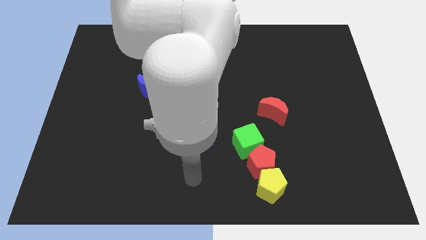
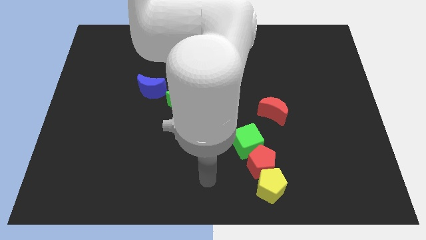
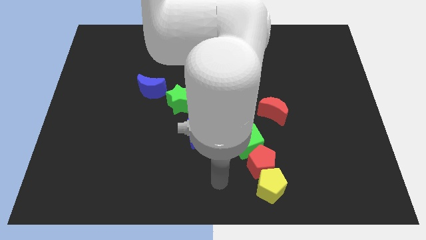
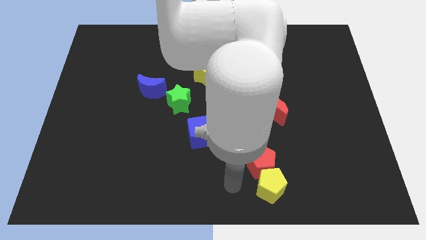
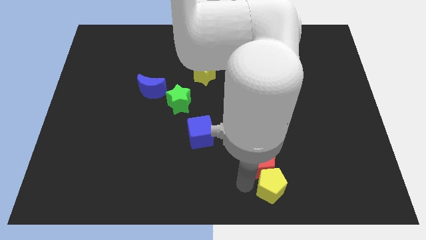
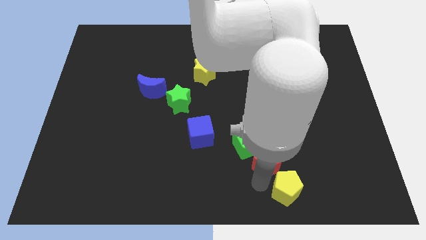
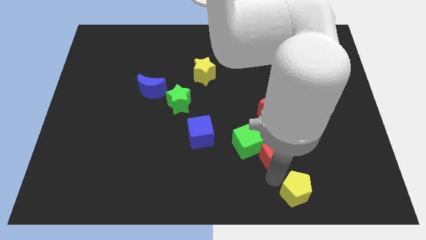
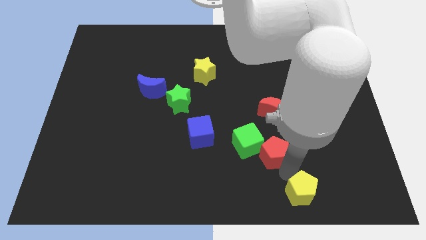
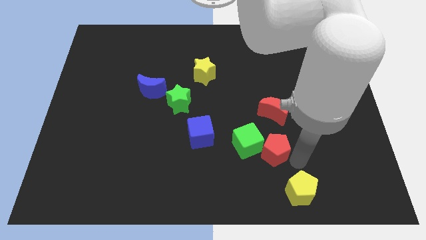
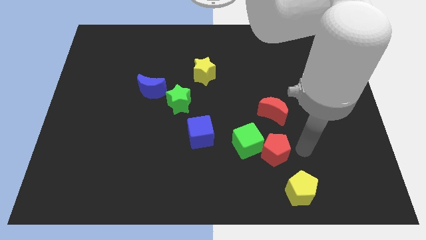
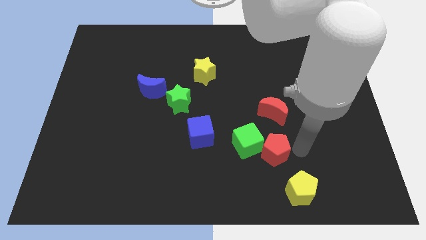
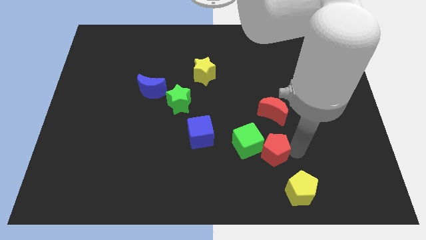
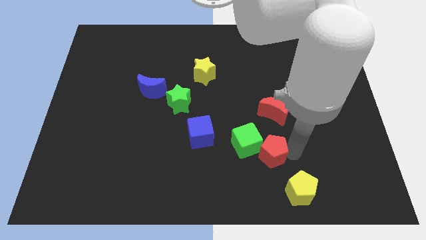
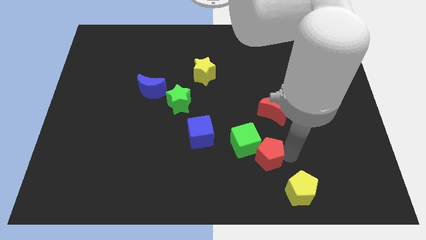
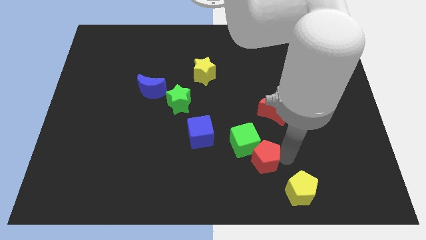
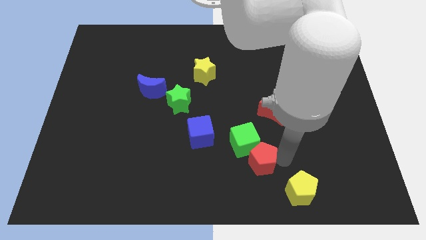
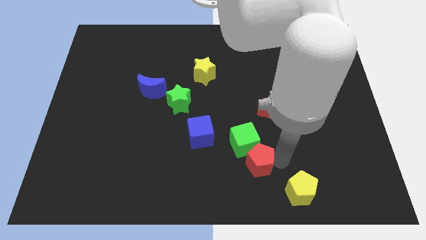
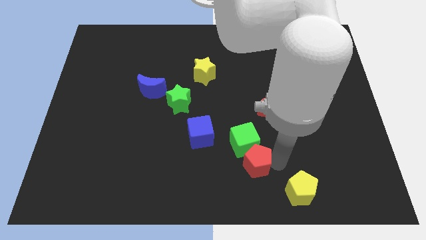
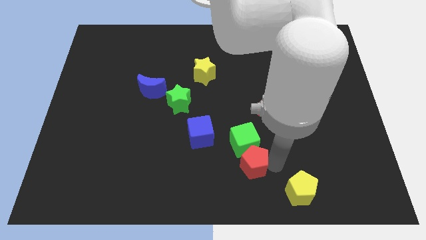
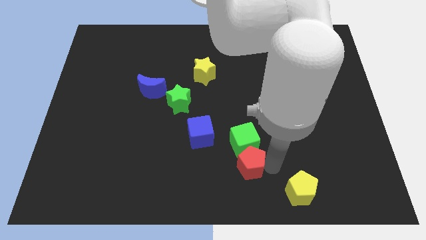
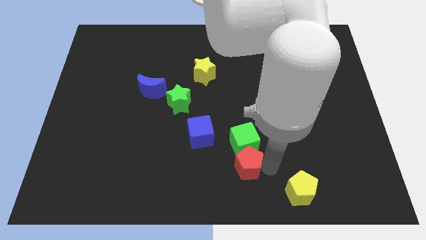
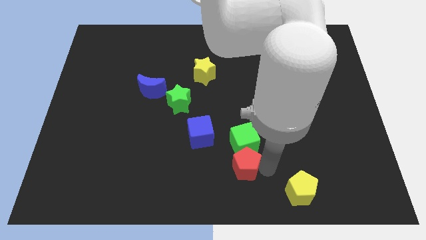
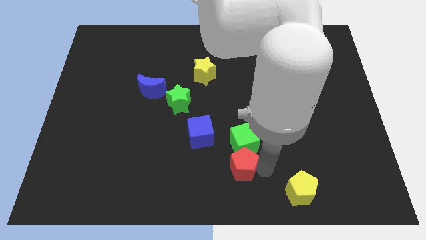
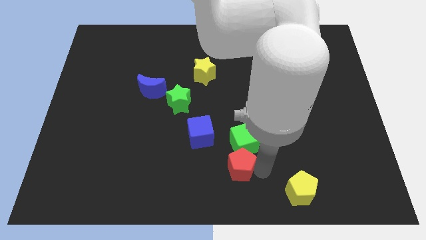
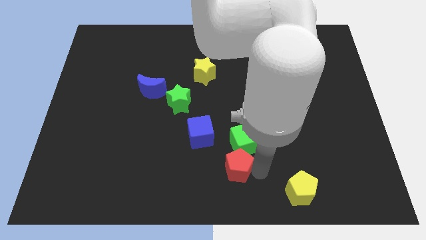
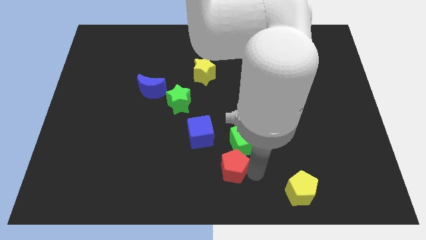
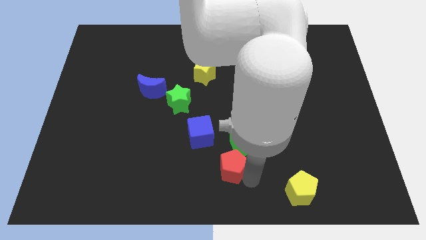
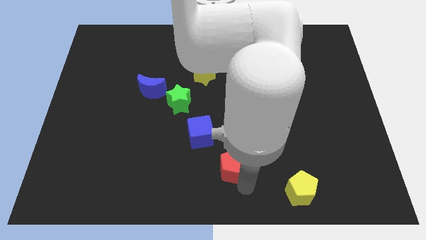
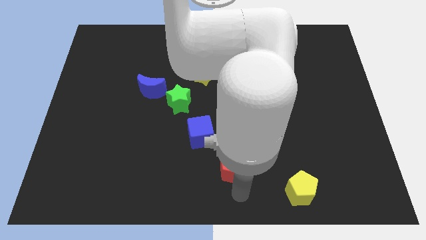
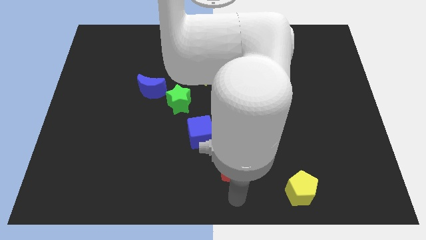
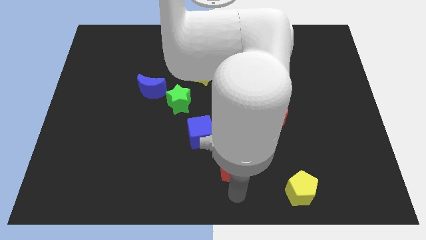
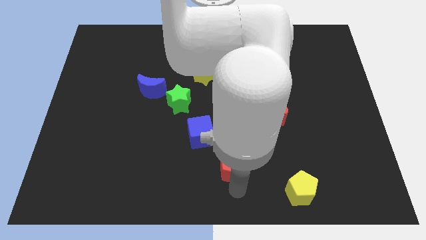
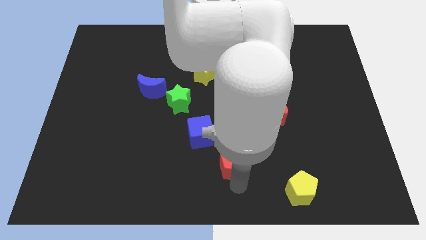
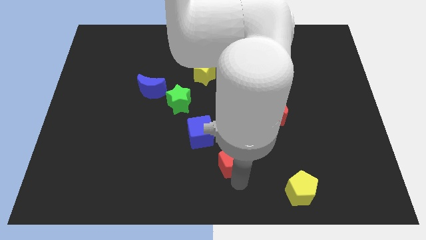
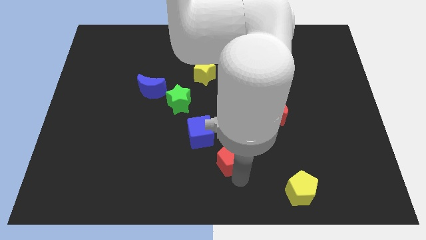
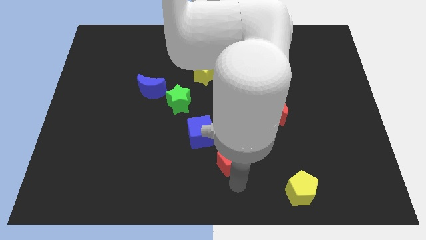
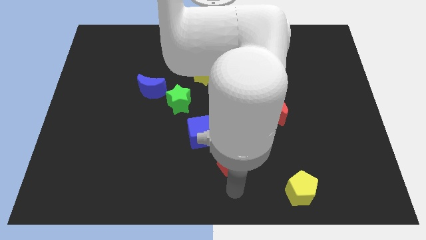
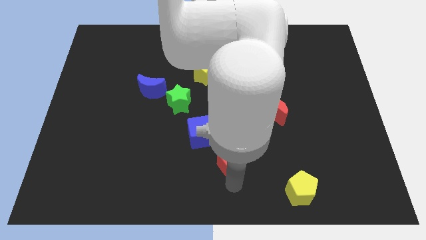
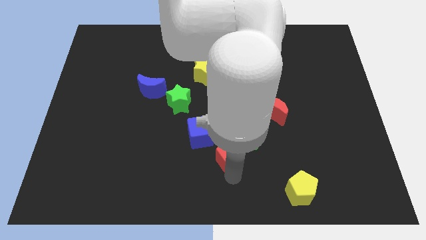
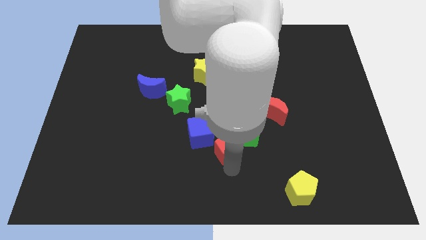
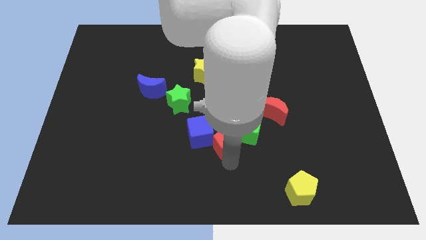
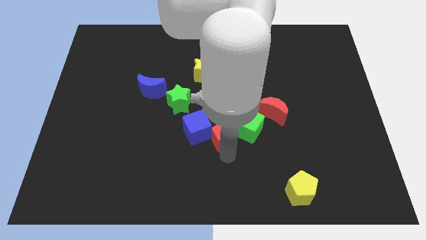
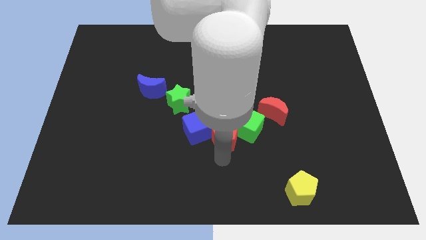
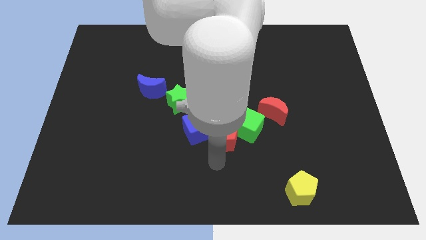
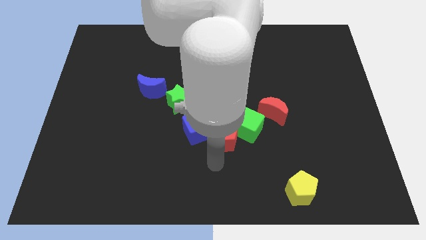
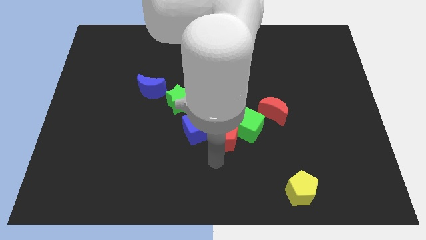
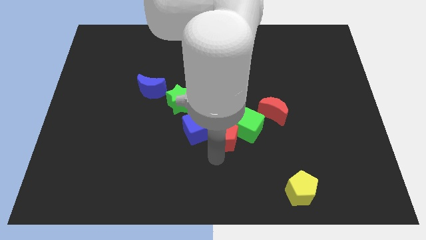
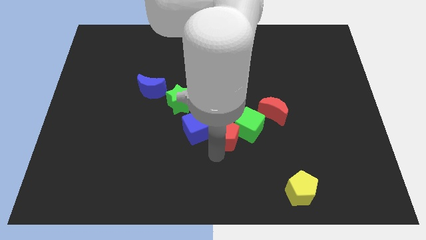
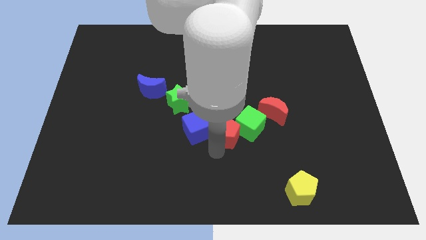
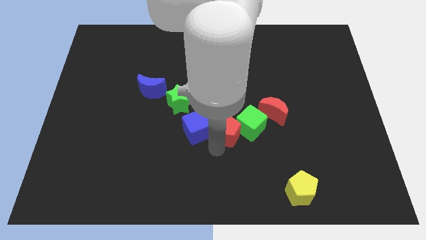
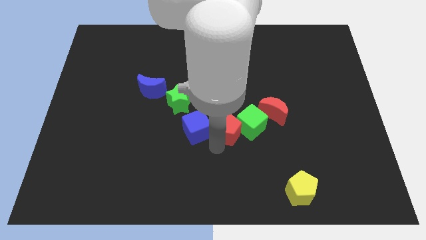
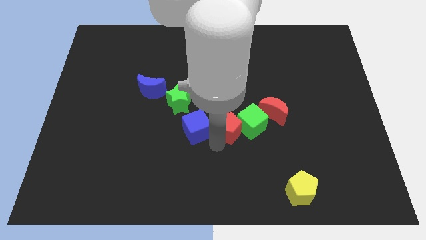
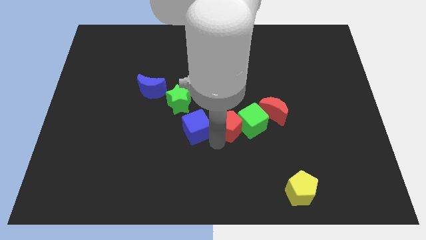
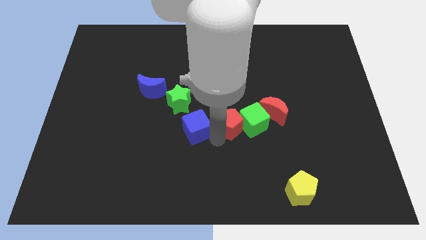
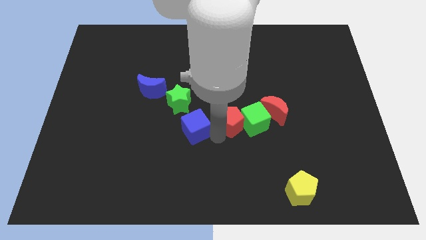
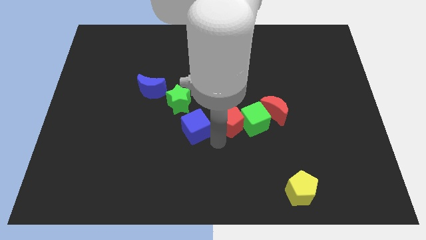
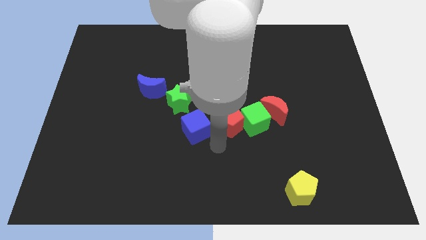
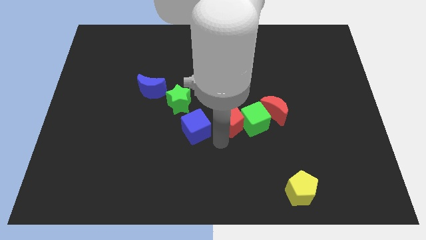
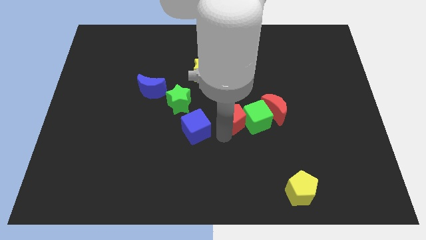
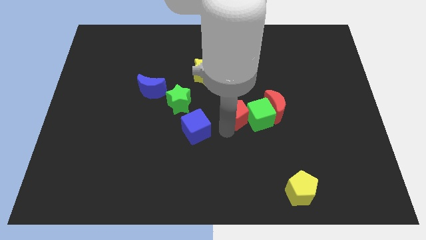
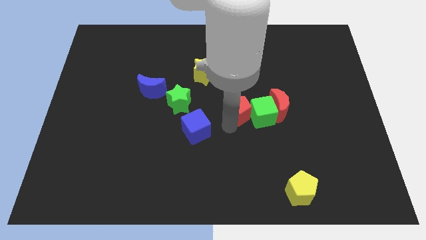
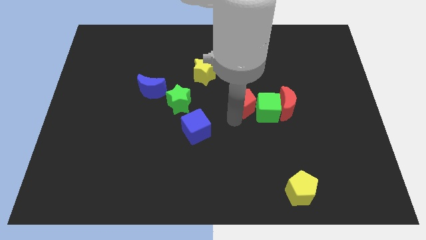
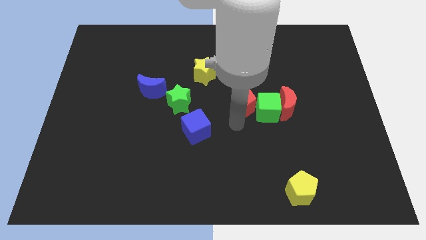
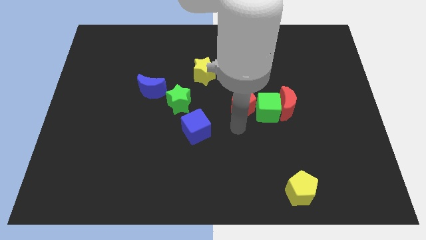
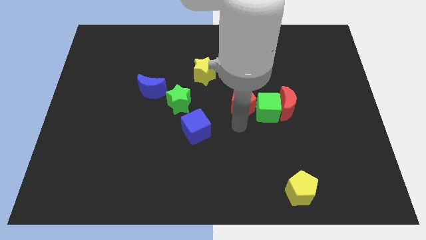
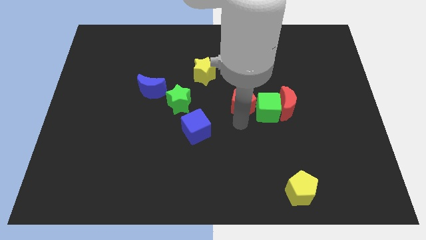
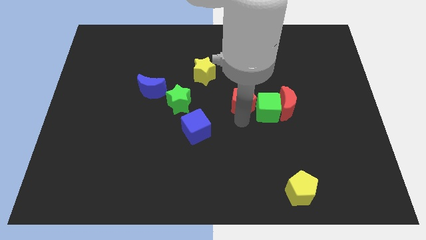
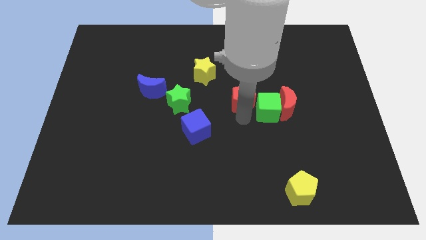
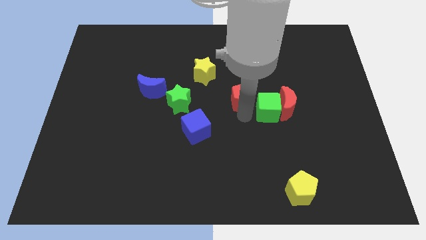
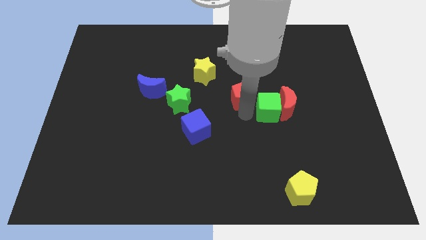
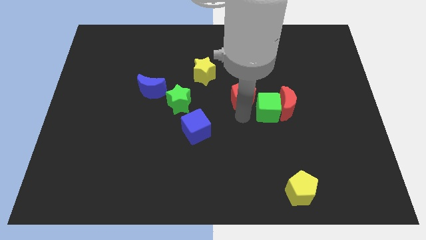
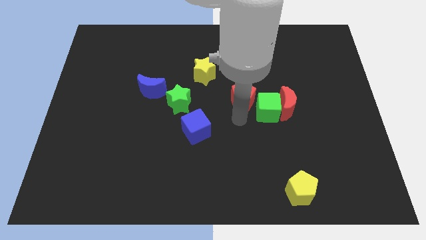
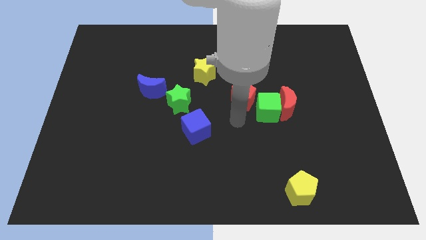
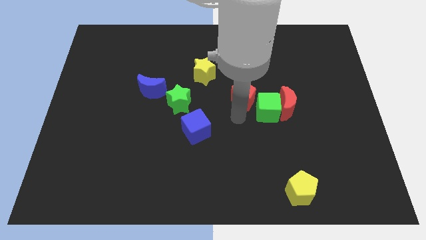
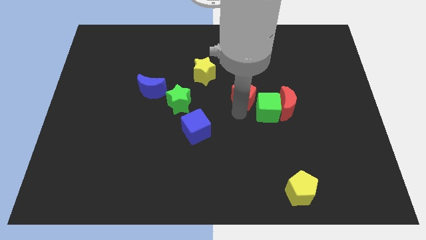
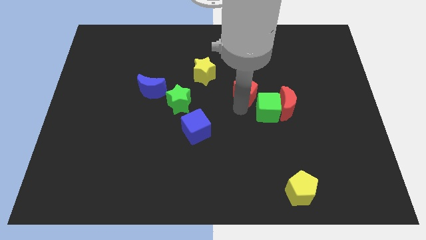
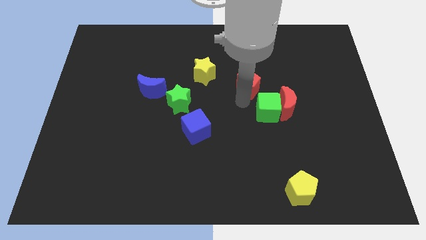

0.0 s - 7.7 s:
slide the red pentagon up

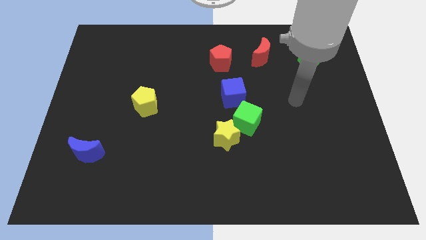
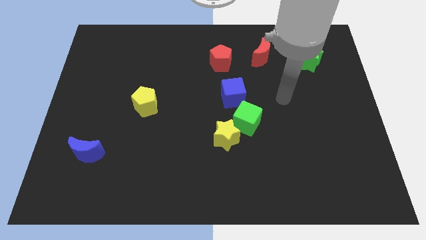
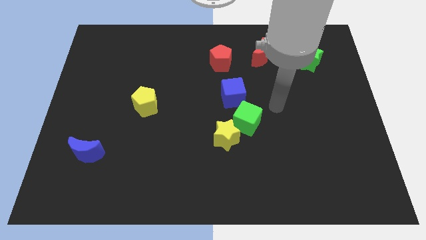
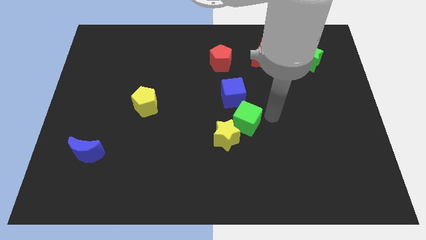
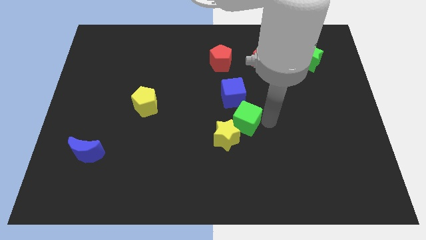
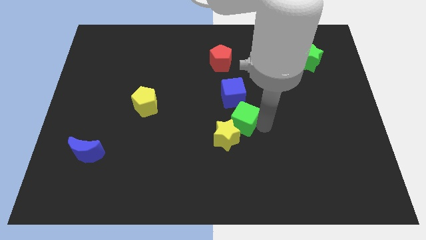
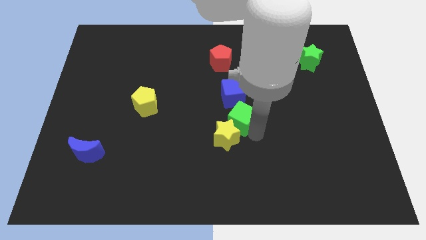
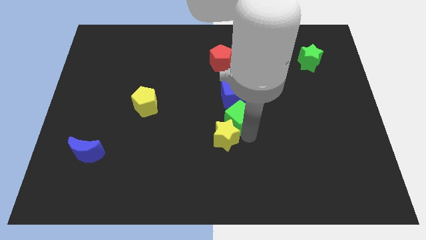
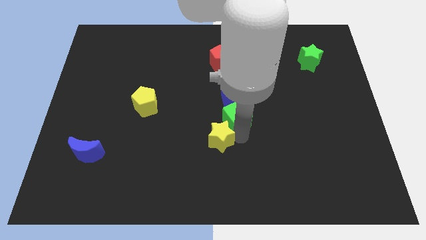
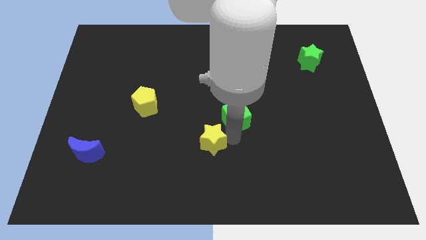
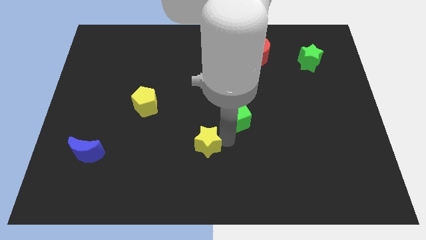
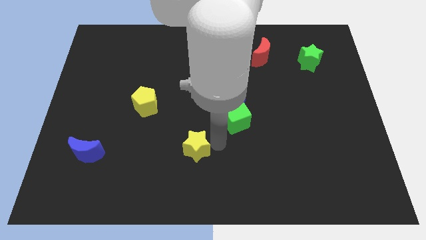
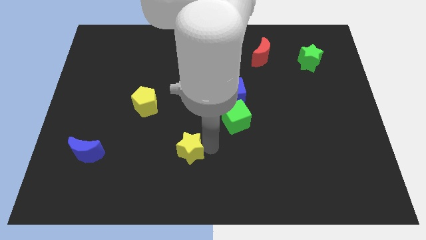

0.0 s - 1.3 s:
move the yellow star left somewhat
